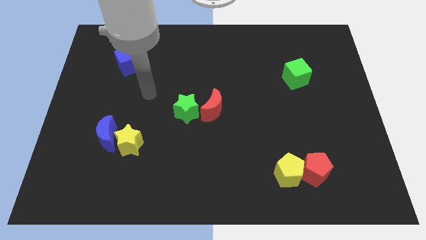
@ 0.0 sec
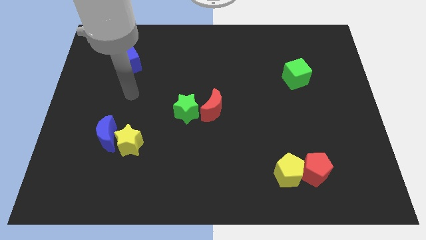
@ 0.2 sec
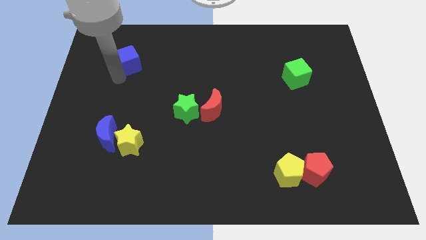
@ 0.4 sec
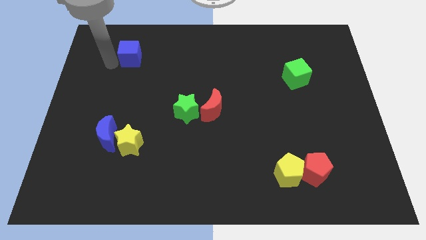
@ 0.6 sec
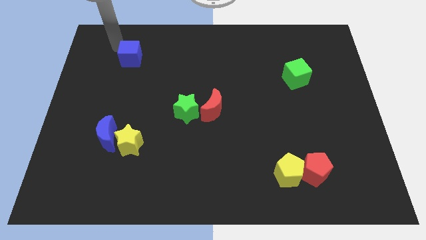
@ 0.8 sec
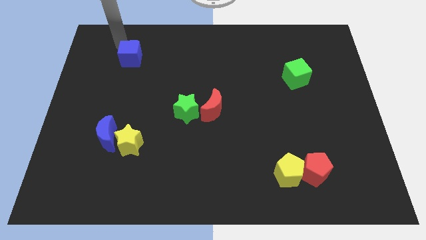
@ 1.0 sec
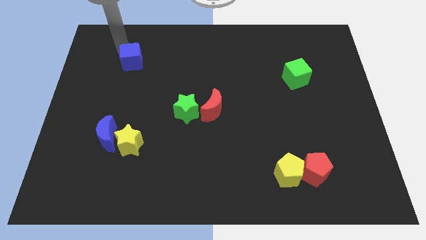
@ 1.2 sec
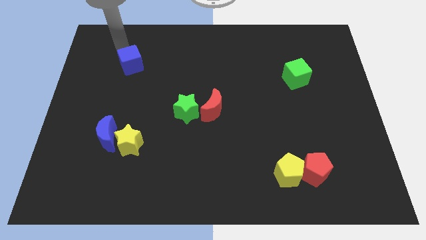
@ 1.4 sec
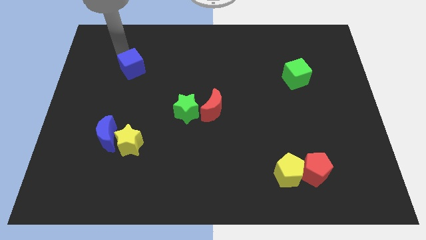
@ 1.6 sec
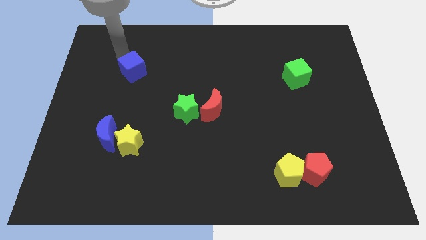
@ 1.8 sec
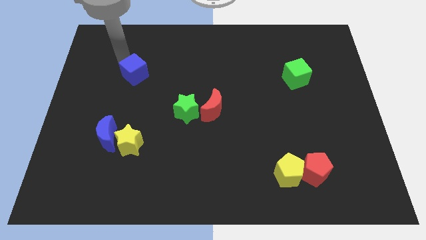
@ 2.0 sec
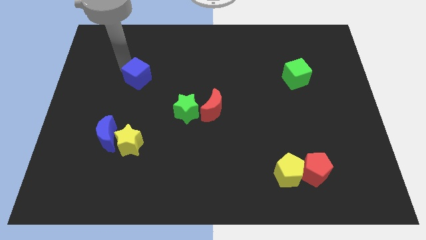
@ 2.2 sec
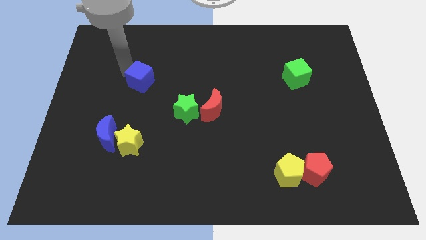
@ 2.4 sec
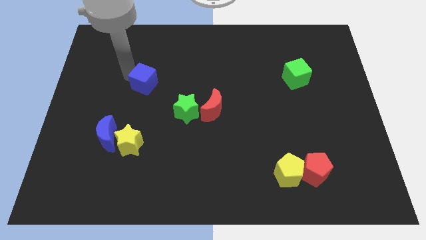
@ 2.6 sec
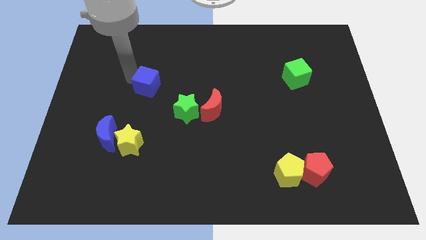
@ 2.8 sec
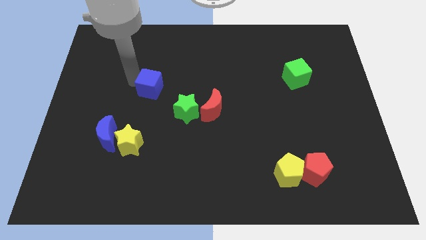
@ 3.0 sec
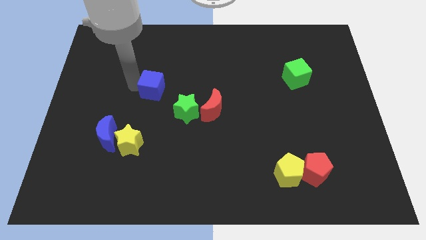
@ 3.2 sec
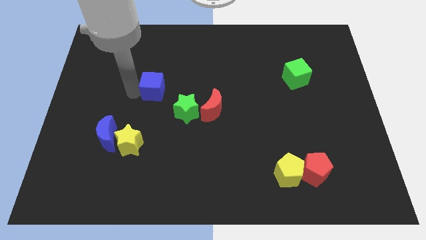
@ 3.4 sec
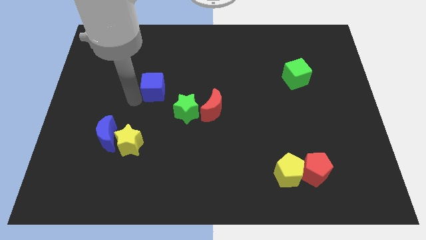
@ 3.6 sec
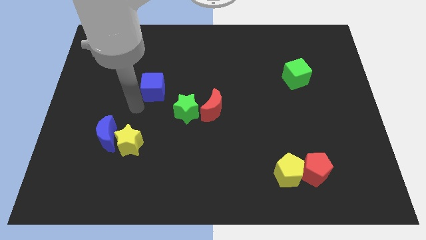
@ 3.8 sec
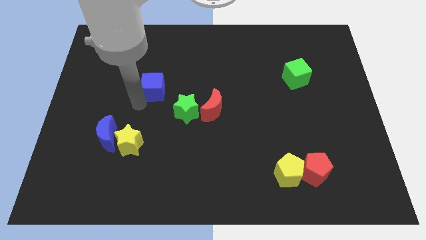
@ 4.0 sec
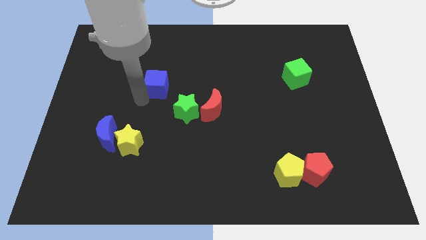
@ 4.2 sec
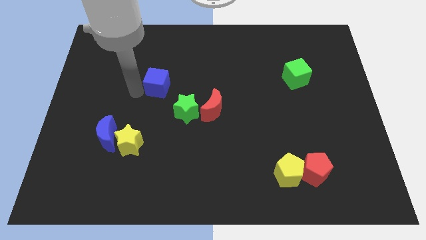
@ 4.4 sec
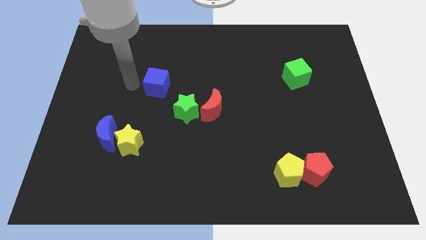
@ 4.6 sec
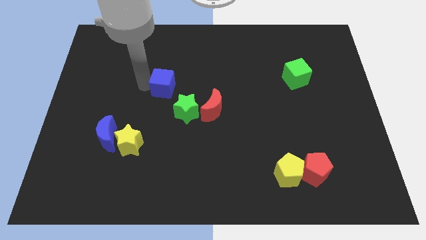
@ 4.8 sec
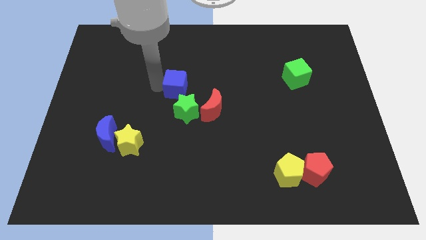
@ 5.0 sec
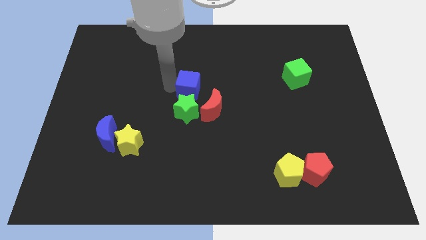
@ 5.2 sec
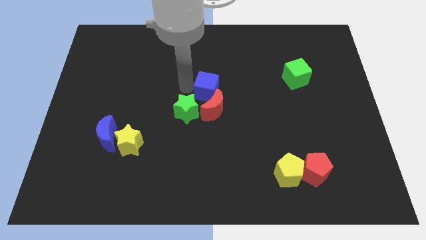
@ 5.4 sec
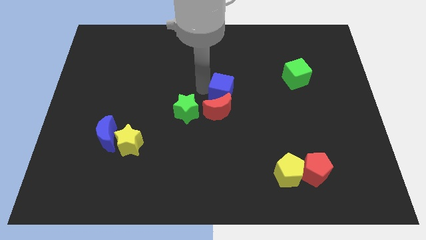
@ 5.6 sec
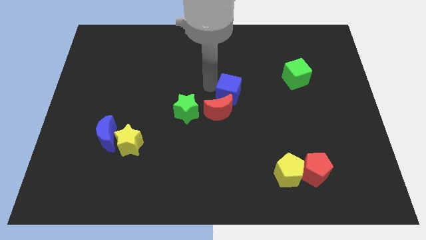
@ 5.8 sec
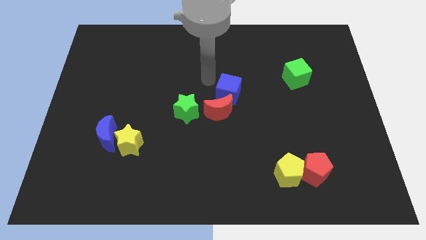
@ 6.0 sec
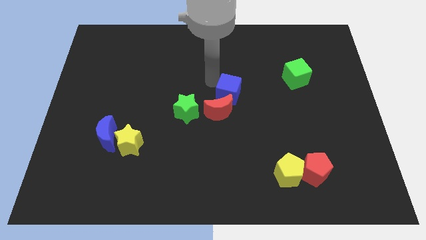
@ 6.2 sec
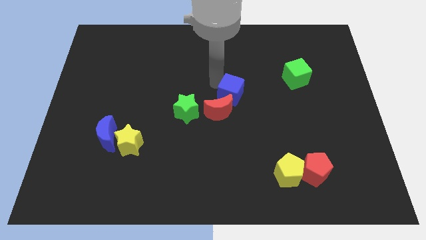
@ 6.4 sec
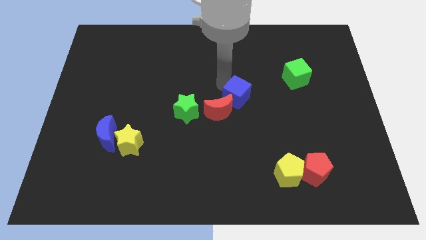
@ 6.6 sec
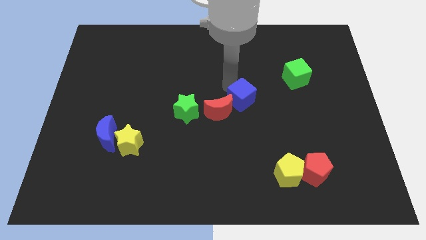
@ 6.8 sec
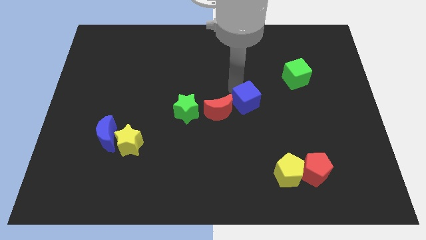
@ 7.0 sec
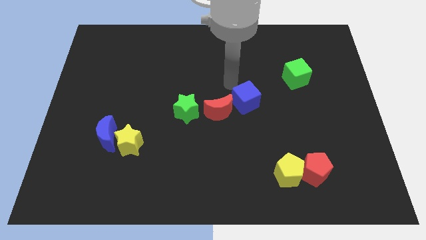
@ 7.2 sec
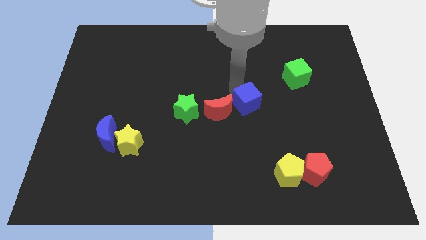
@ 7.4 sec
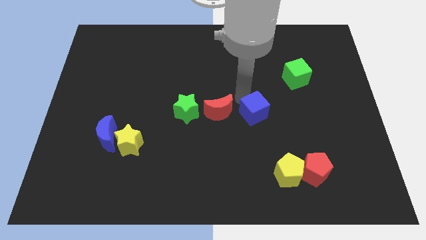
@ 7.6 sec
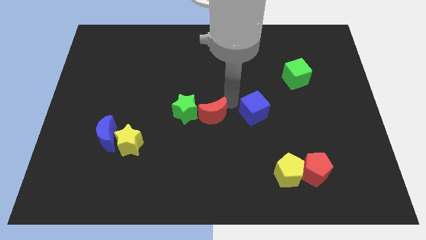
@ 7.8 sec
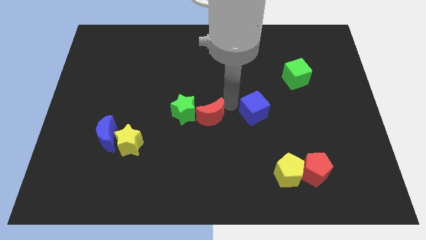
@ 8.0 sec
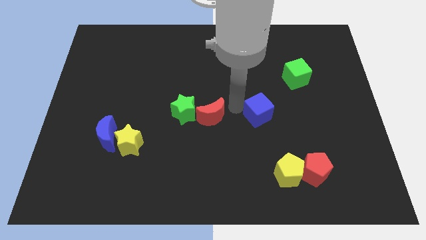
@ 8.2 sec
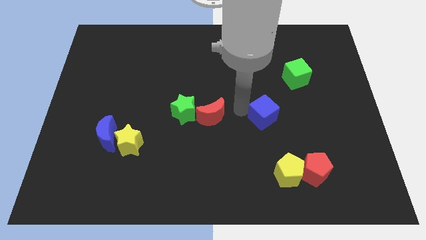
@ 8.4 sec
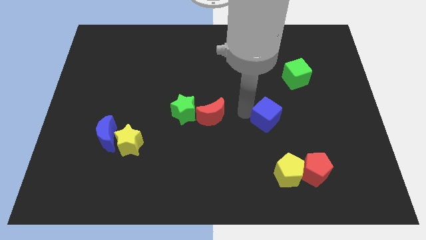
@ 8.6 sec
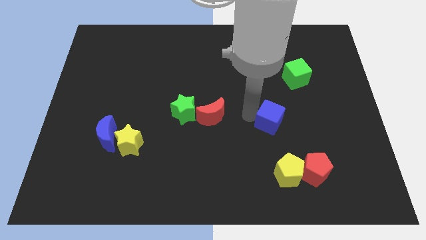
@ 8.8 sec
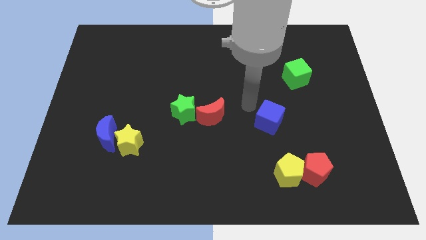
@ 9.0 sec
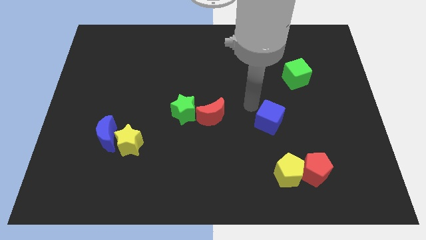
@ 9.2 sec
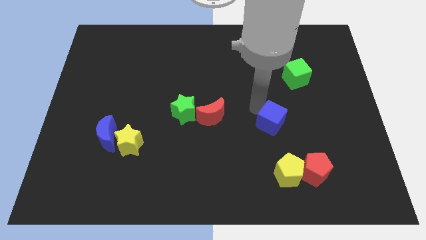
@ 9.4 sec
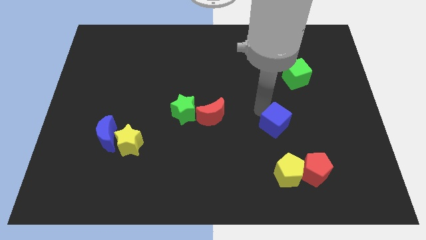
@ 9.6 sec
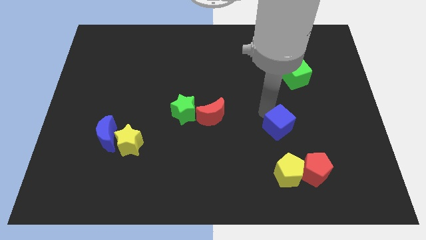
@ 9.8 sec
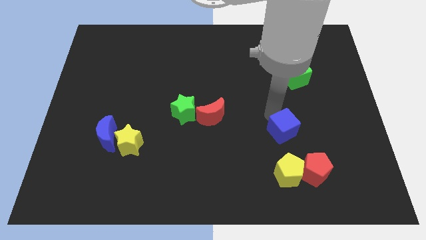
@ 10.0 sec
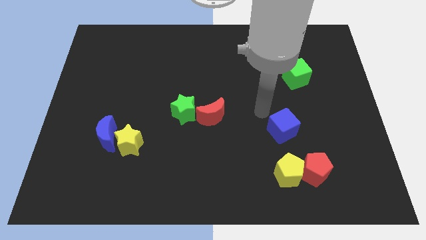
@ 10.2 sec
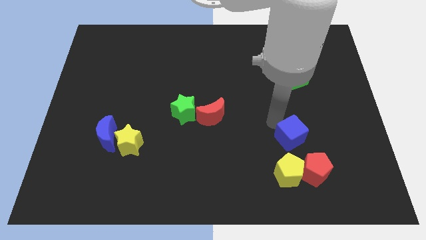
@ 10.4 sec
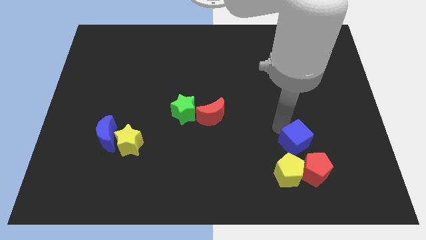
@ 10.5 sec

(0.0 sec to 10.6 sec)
move the blue cube to the top right side of the yellow pentagon

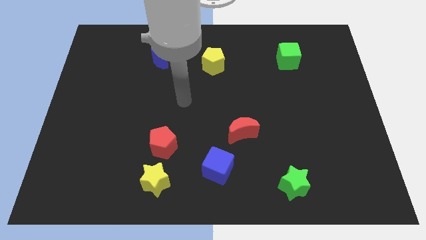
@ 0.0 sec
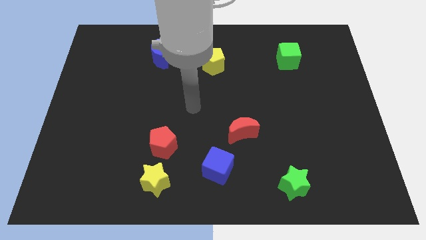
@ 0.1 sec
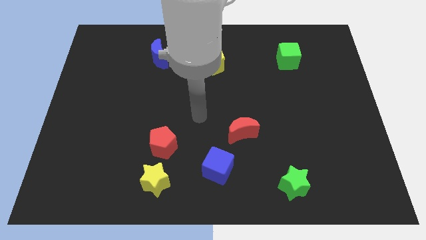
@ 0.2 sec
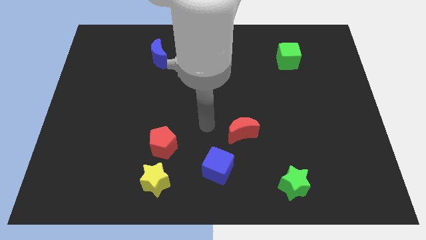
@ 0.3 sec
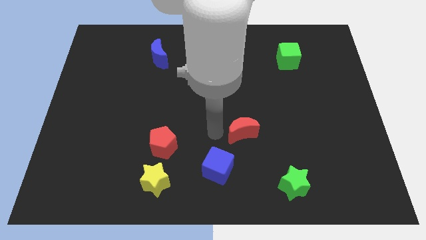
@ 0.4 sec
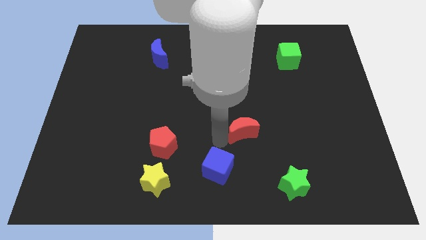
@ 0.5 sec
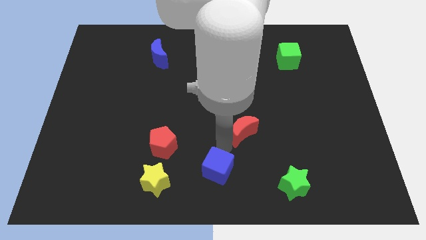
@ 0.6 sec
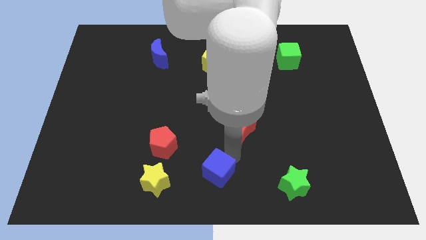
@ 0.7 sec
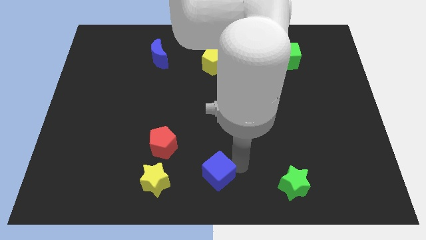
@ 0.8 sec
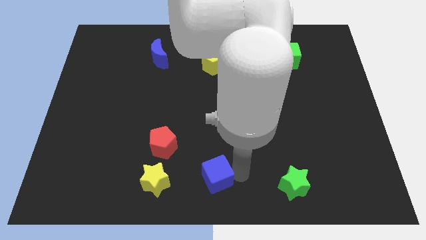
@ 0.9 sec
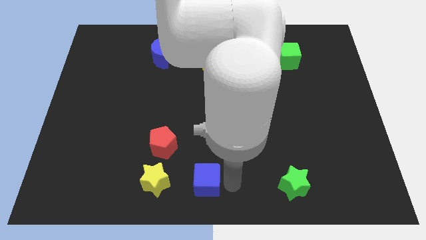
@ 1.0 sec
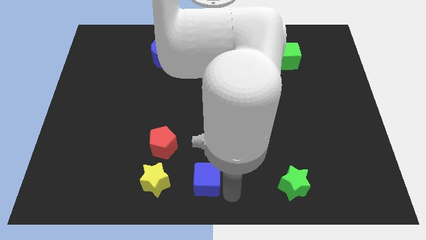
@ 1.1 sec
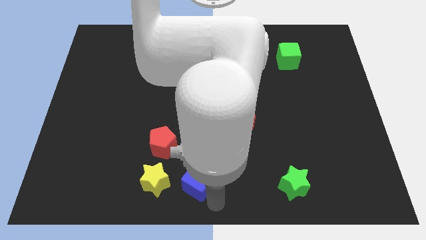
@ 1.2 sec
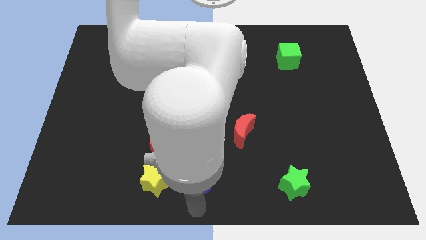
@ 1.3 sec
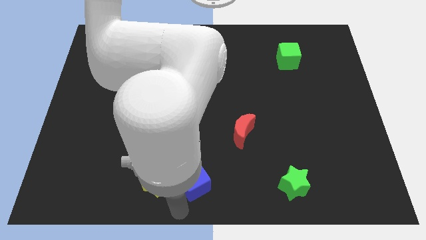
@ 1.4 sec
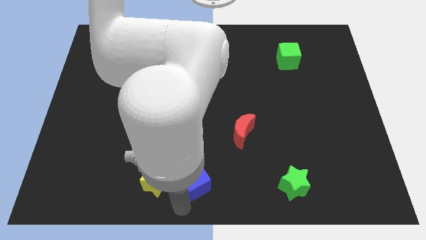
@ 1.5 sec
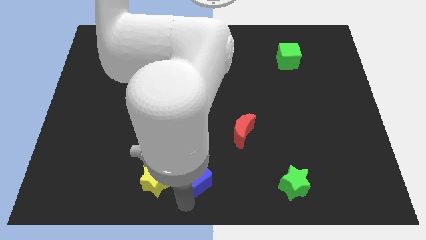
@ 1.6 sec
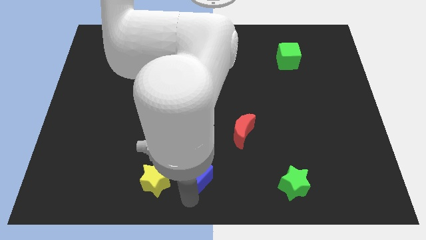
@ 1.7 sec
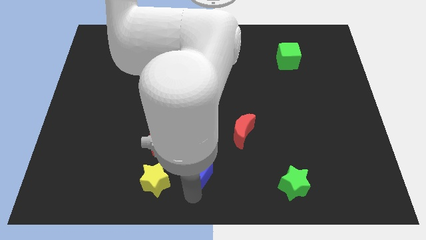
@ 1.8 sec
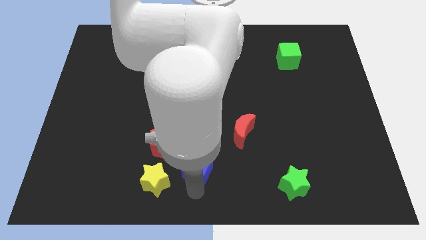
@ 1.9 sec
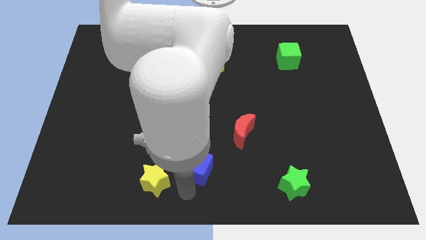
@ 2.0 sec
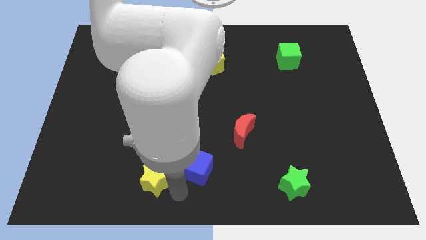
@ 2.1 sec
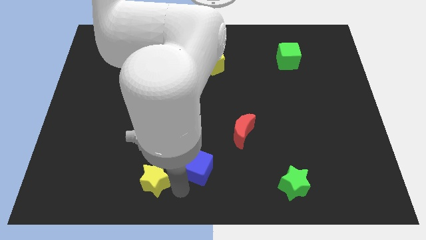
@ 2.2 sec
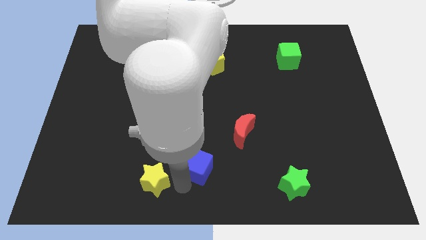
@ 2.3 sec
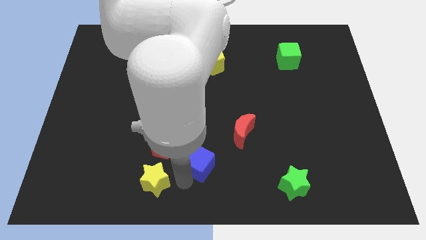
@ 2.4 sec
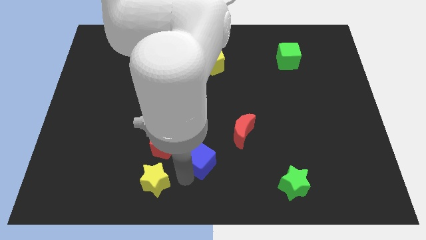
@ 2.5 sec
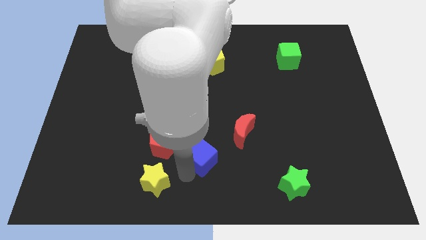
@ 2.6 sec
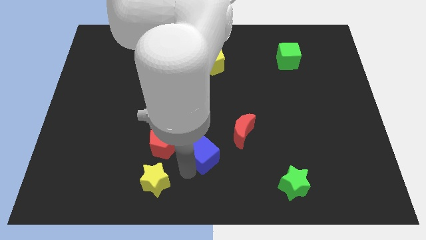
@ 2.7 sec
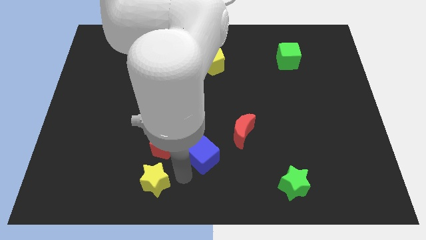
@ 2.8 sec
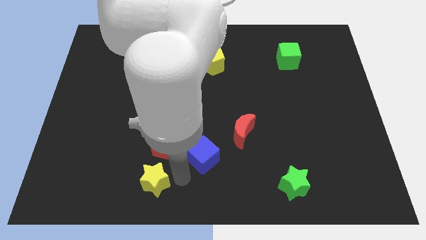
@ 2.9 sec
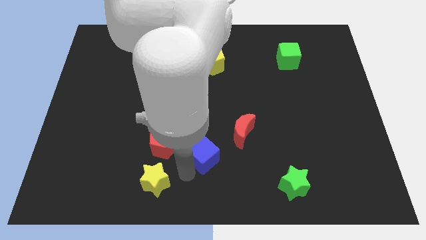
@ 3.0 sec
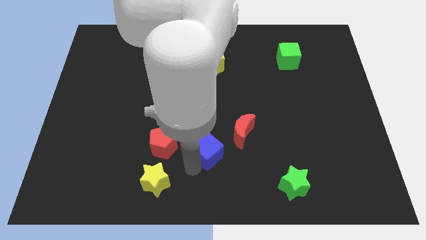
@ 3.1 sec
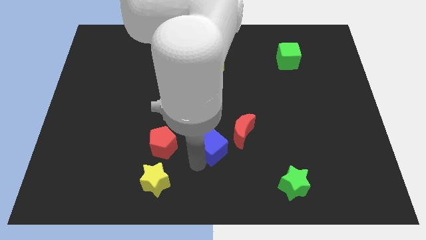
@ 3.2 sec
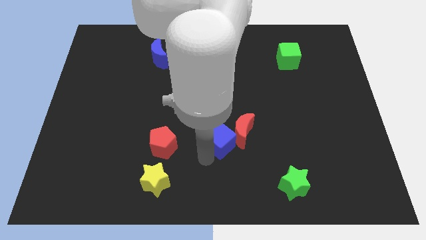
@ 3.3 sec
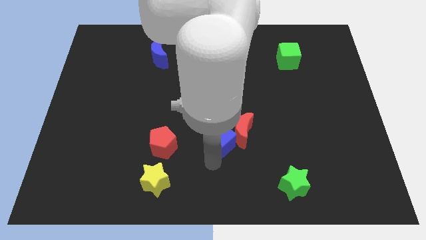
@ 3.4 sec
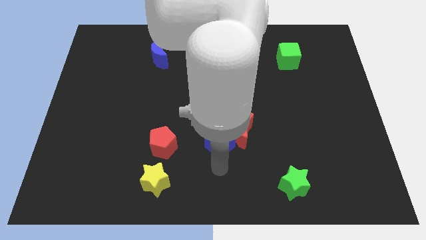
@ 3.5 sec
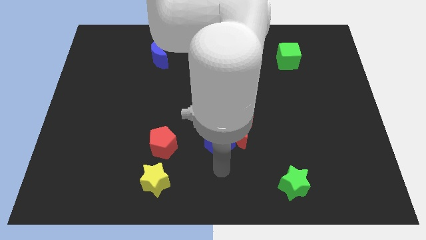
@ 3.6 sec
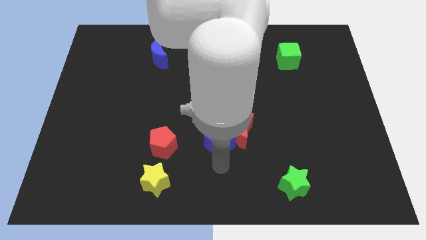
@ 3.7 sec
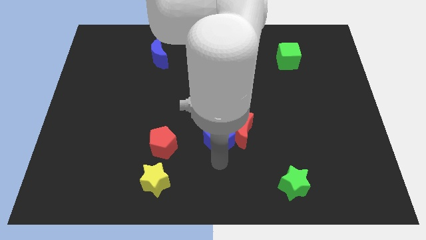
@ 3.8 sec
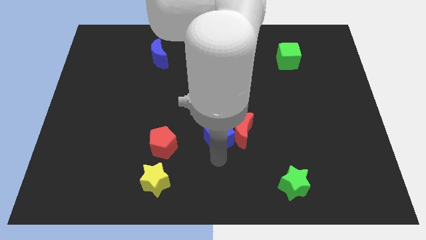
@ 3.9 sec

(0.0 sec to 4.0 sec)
slide the blue cube to the top left of the red moon
